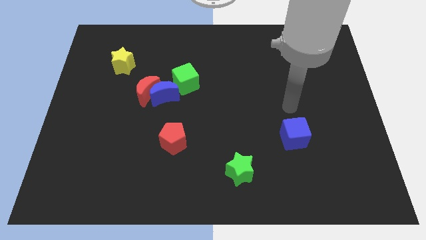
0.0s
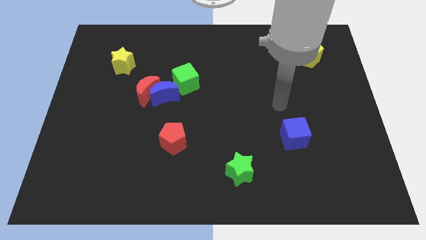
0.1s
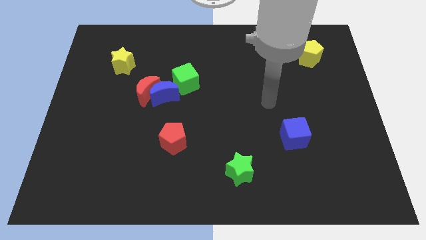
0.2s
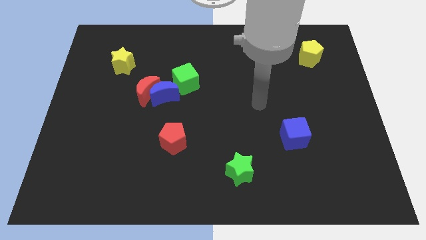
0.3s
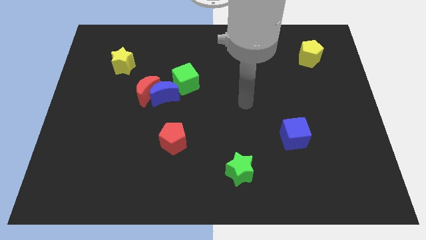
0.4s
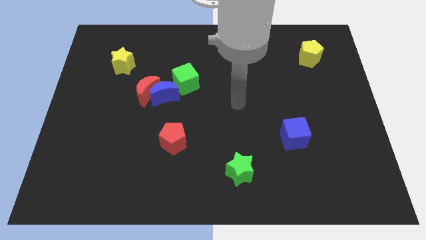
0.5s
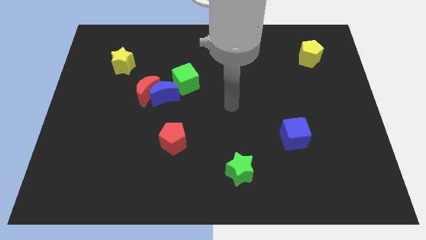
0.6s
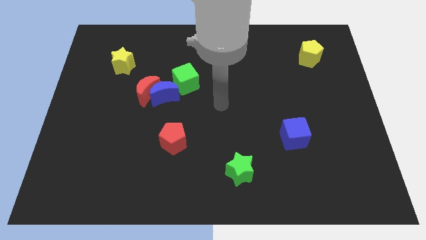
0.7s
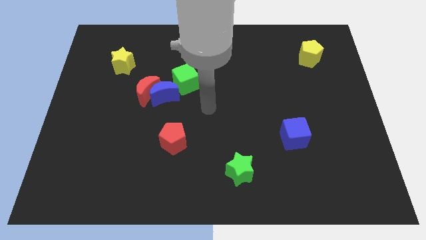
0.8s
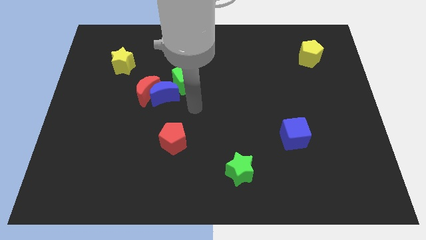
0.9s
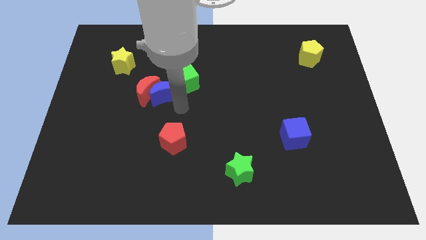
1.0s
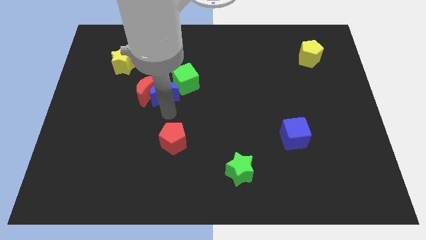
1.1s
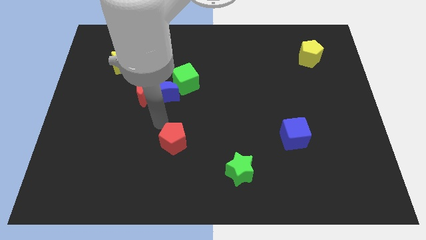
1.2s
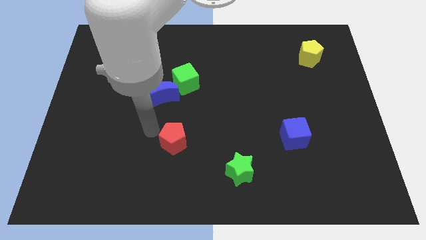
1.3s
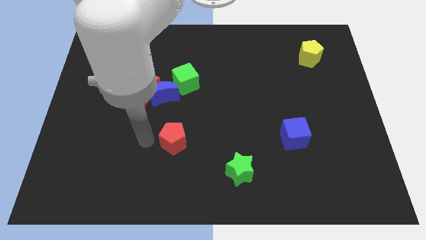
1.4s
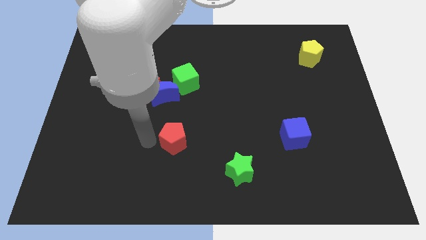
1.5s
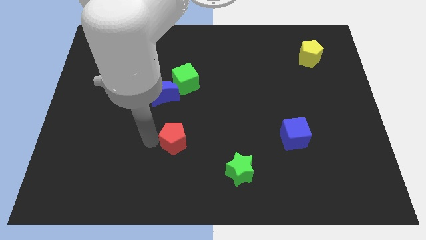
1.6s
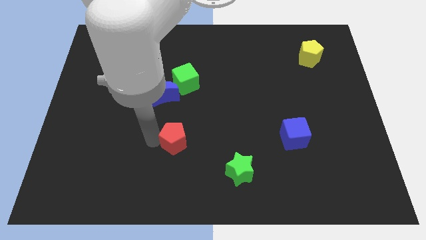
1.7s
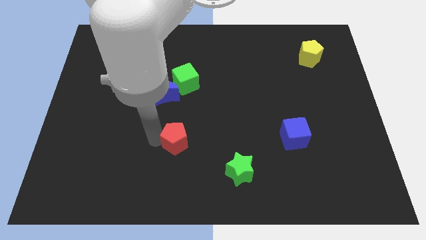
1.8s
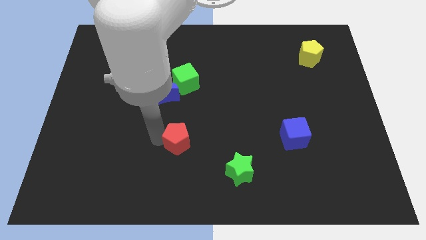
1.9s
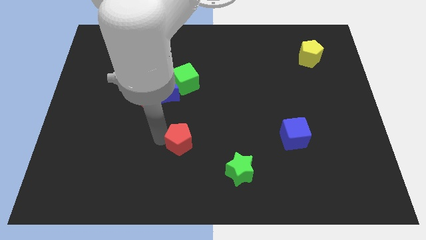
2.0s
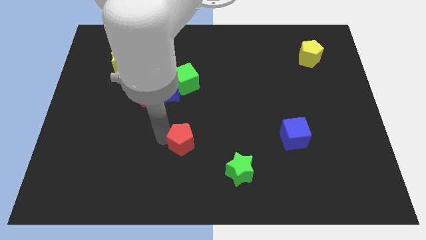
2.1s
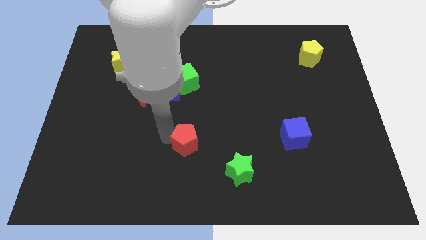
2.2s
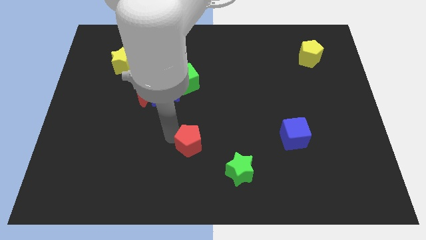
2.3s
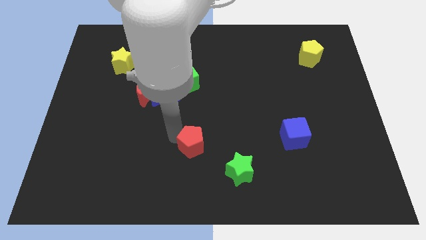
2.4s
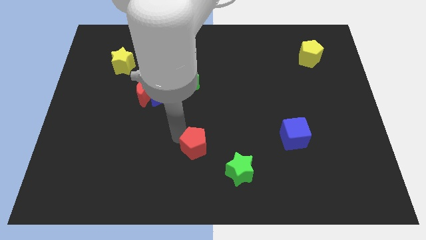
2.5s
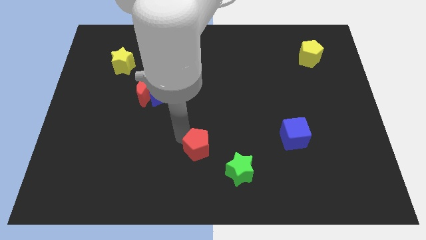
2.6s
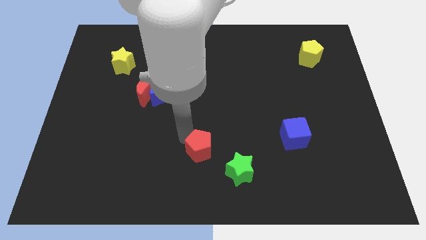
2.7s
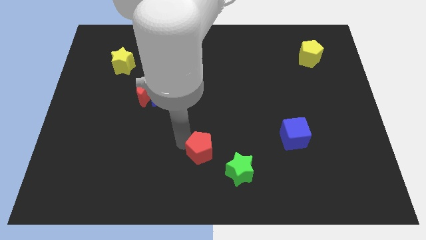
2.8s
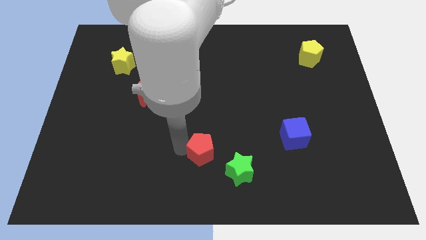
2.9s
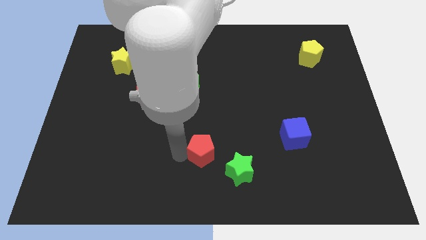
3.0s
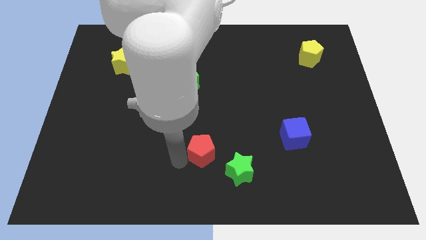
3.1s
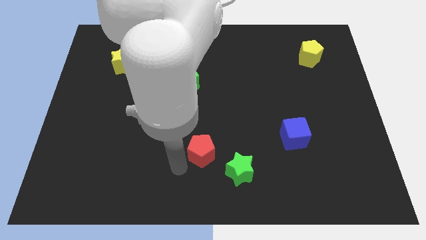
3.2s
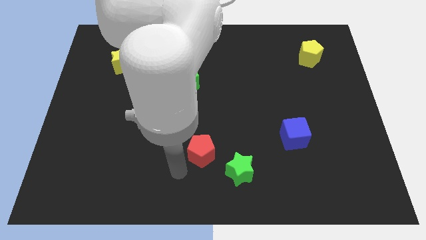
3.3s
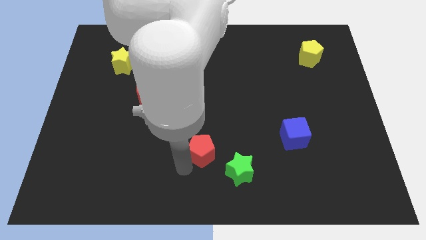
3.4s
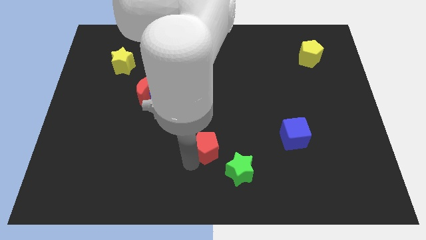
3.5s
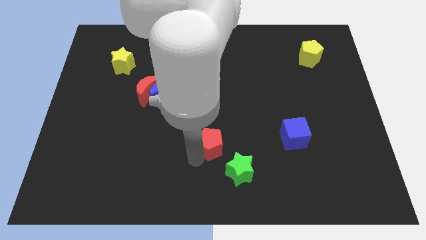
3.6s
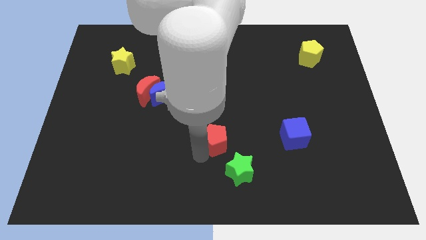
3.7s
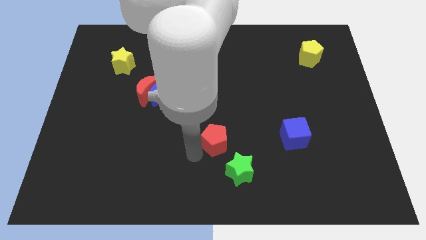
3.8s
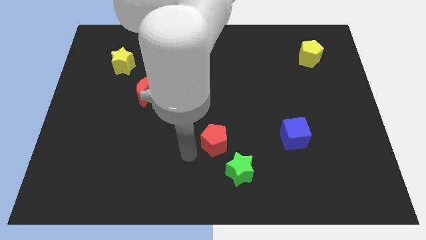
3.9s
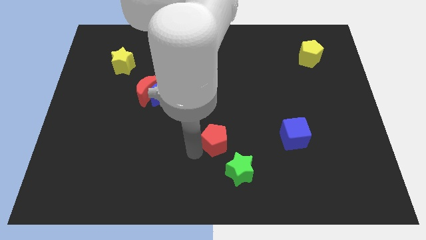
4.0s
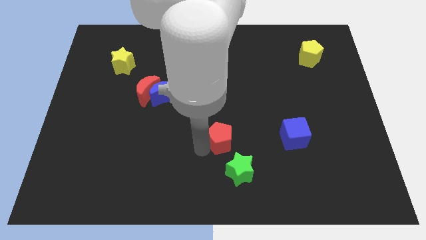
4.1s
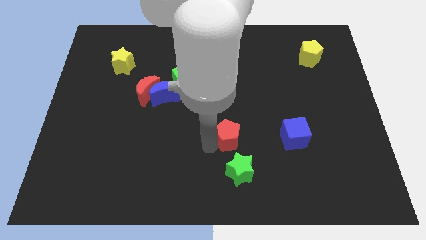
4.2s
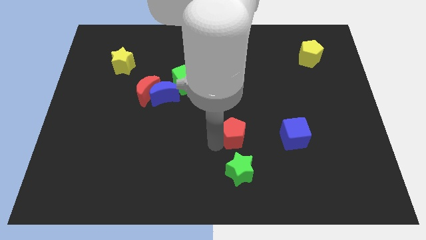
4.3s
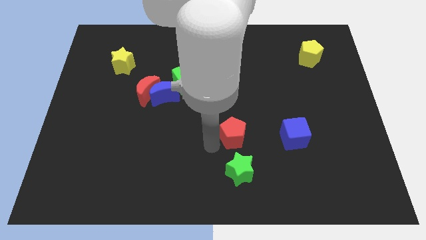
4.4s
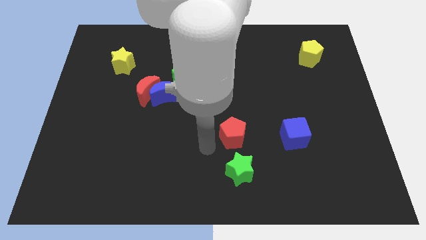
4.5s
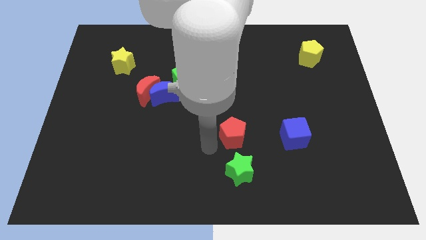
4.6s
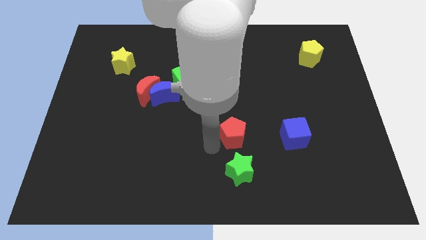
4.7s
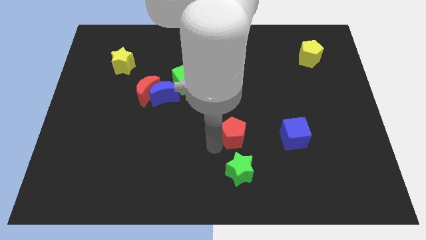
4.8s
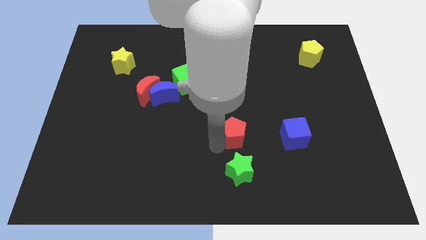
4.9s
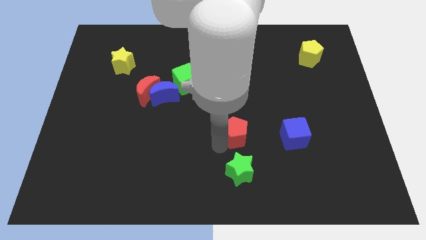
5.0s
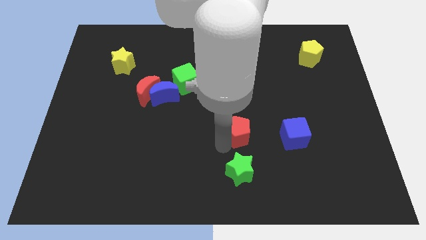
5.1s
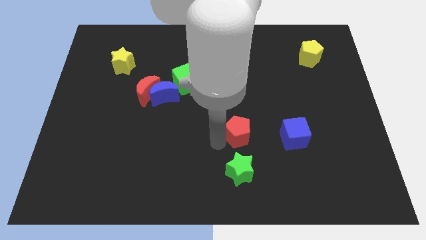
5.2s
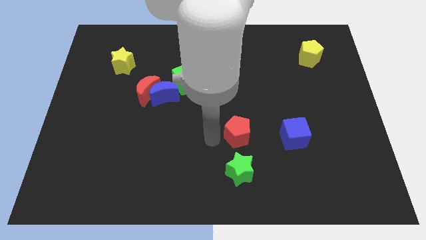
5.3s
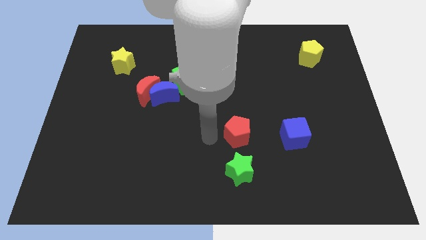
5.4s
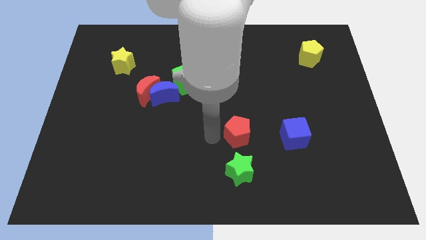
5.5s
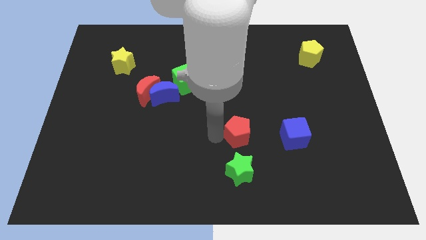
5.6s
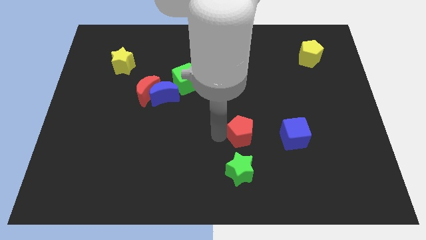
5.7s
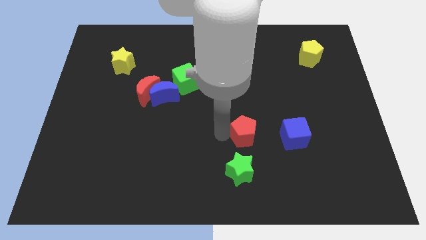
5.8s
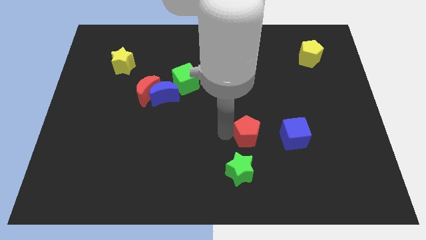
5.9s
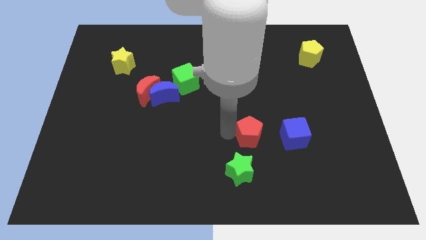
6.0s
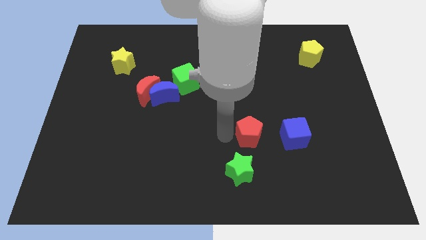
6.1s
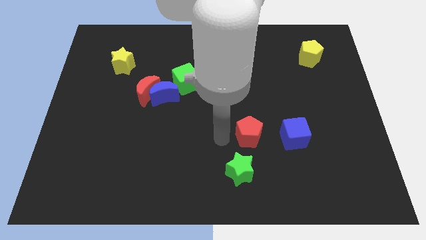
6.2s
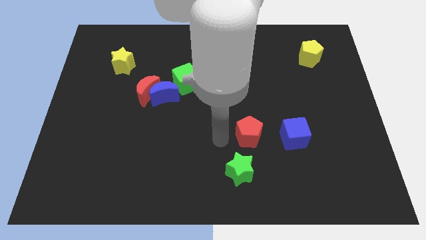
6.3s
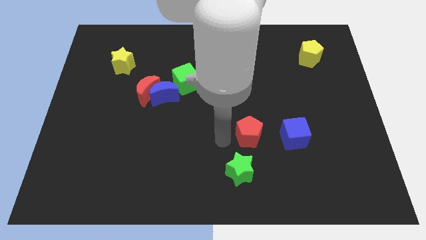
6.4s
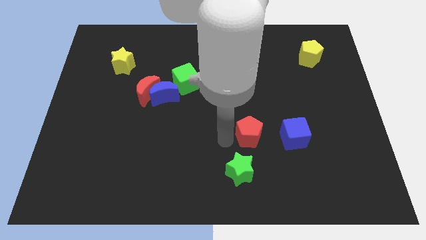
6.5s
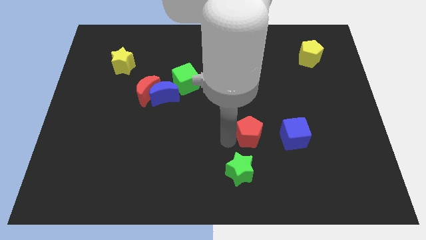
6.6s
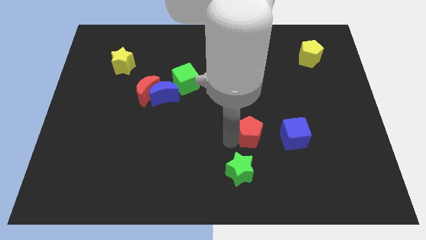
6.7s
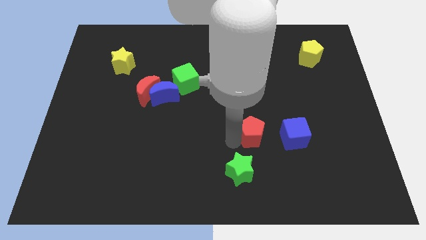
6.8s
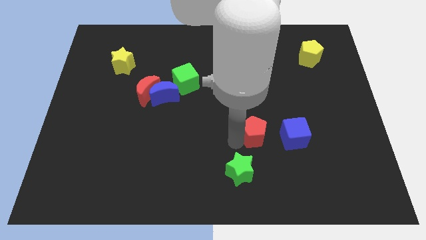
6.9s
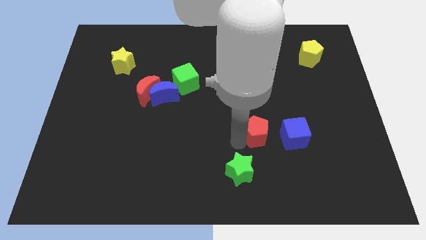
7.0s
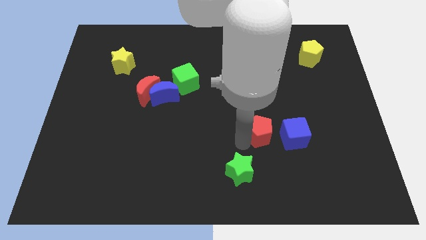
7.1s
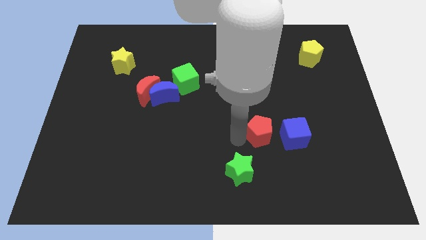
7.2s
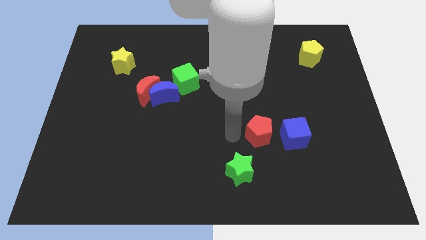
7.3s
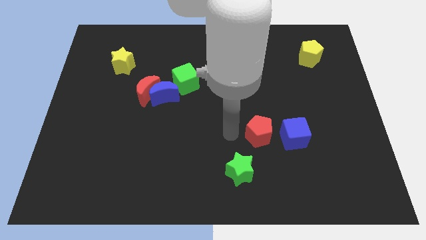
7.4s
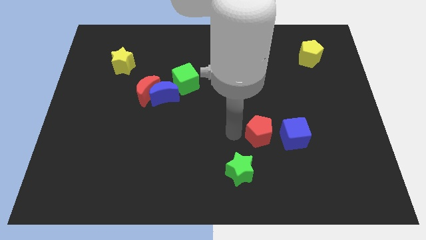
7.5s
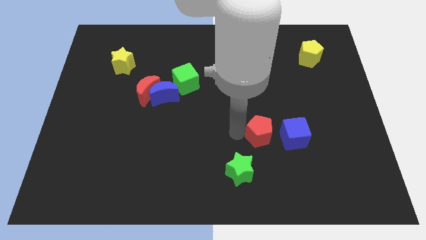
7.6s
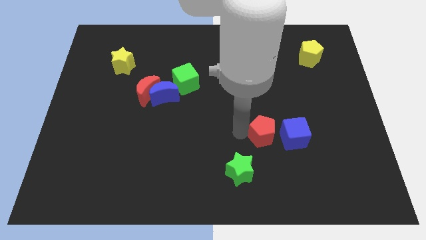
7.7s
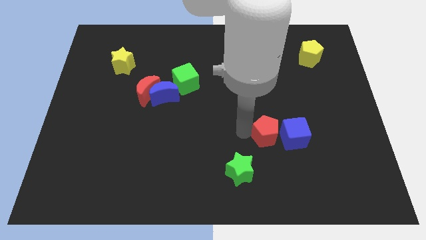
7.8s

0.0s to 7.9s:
push the red pentagon next to the blue cube
